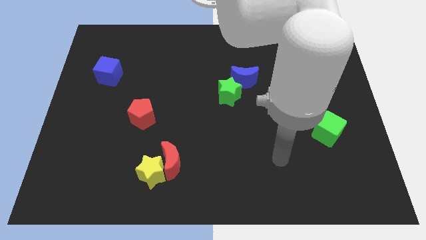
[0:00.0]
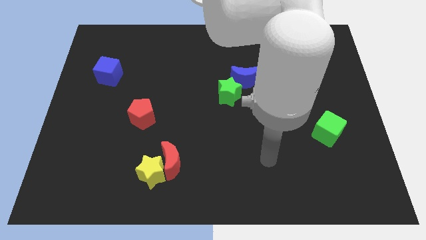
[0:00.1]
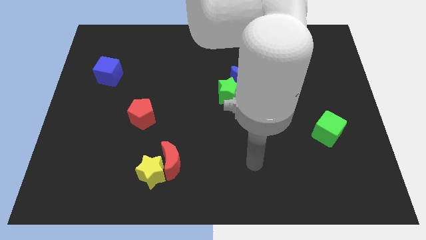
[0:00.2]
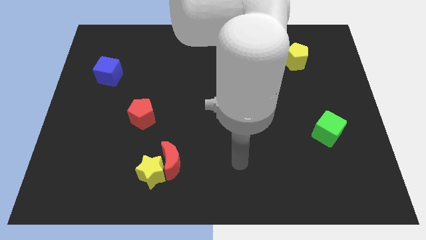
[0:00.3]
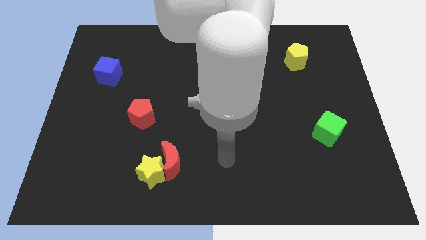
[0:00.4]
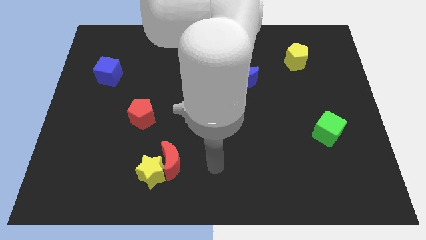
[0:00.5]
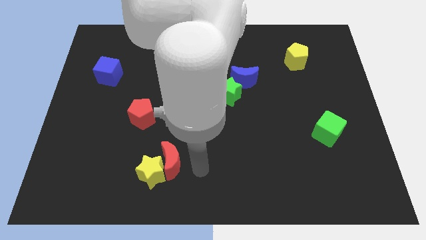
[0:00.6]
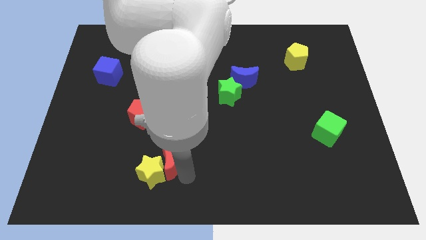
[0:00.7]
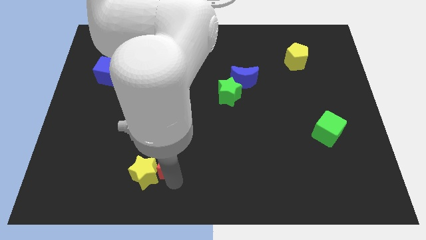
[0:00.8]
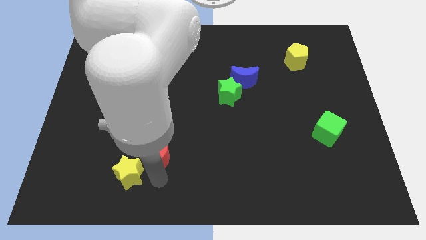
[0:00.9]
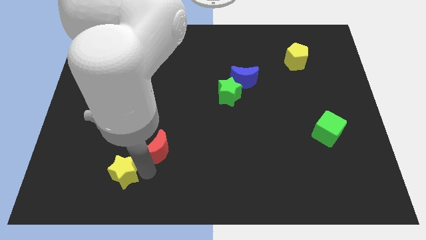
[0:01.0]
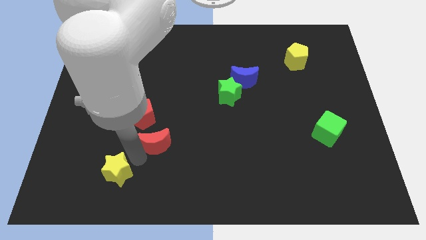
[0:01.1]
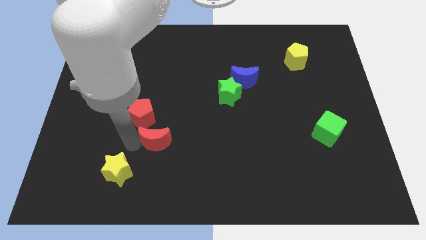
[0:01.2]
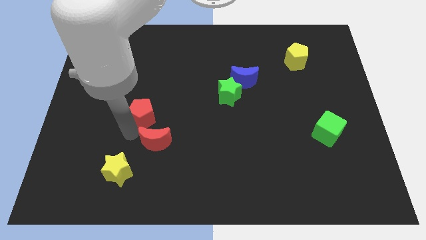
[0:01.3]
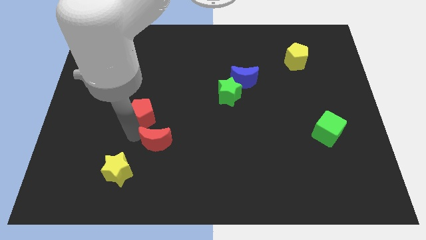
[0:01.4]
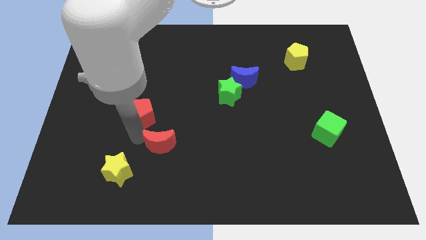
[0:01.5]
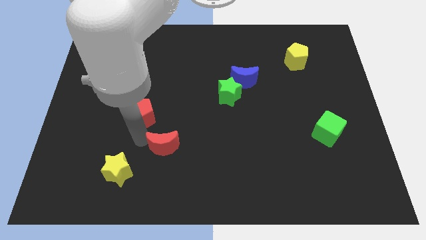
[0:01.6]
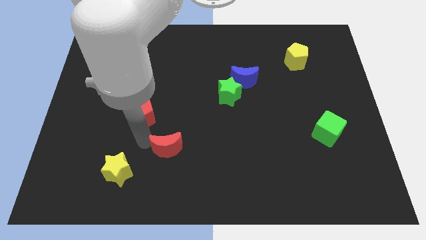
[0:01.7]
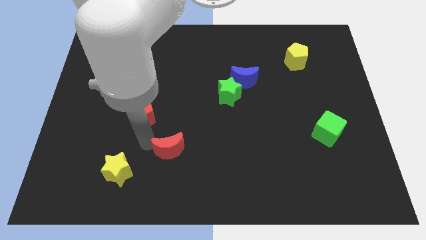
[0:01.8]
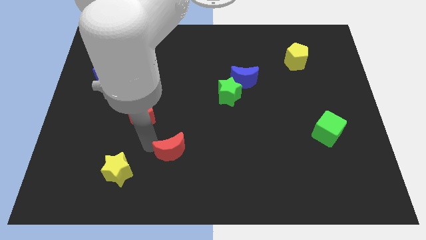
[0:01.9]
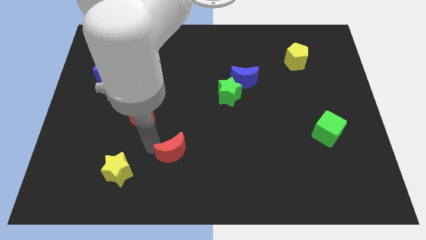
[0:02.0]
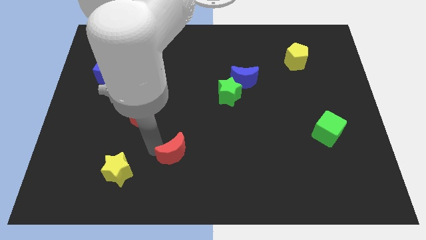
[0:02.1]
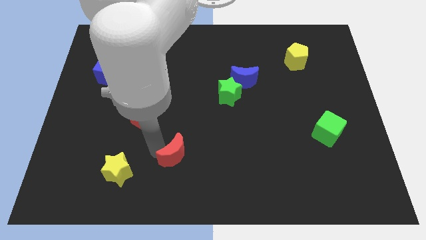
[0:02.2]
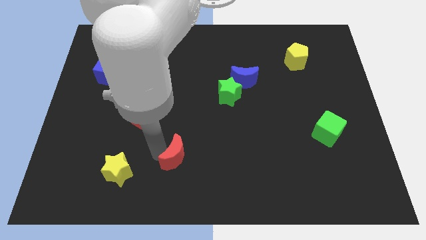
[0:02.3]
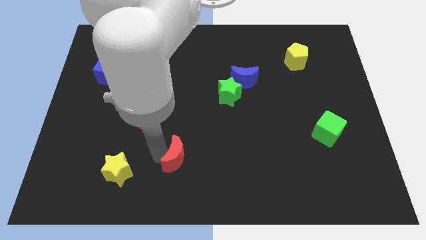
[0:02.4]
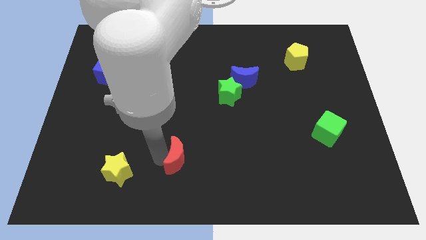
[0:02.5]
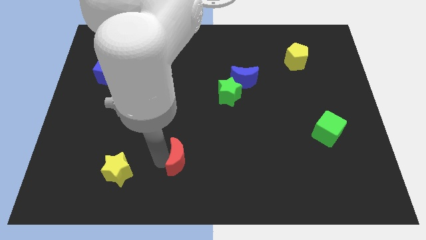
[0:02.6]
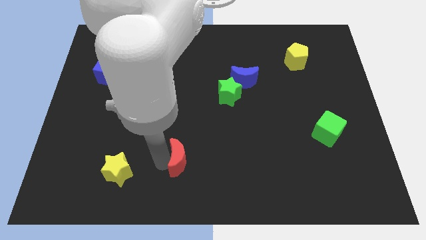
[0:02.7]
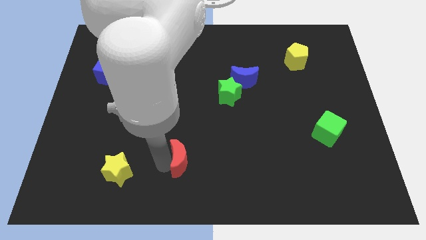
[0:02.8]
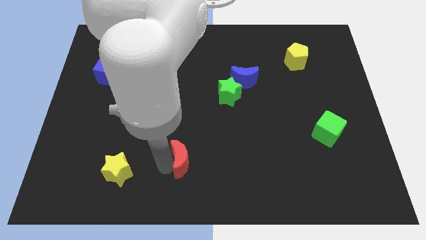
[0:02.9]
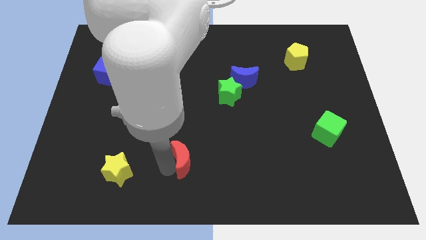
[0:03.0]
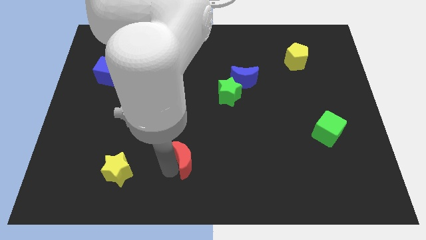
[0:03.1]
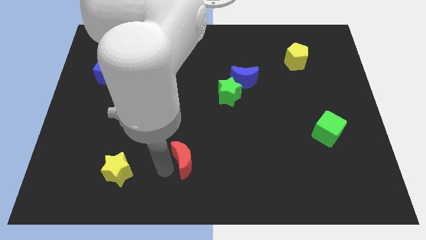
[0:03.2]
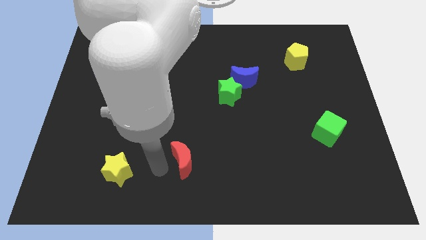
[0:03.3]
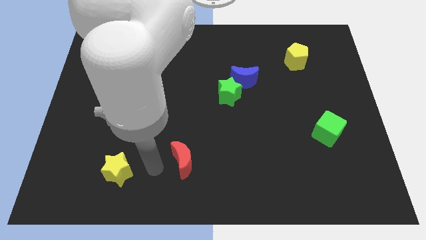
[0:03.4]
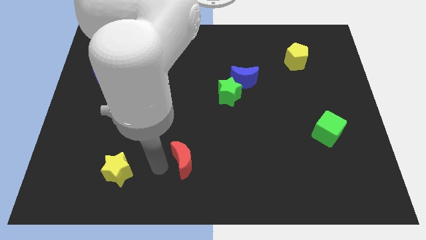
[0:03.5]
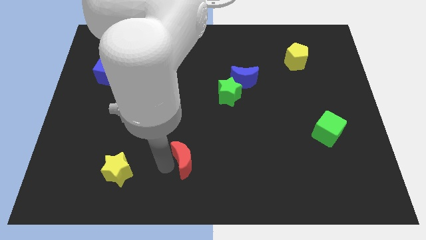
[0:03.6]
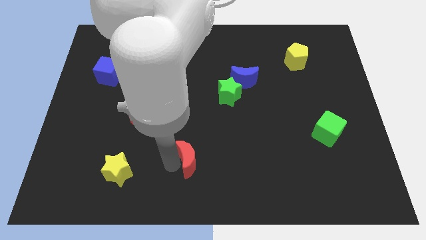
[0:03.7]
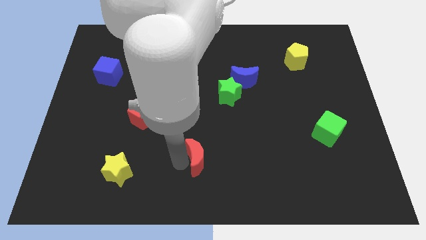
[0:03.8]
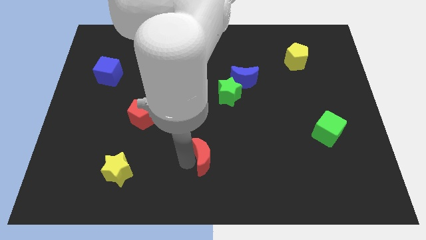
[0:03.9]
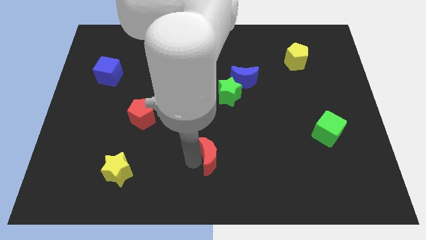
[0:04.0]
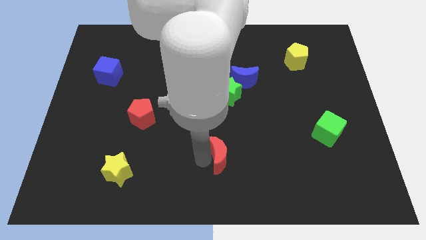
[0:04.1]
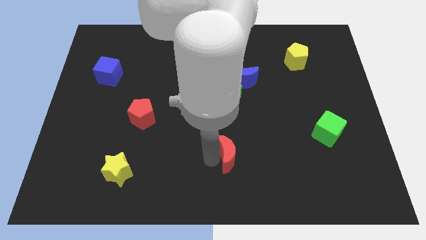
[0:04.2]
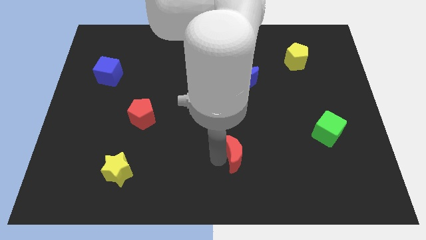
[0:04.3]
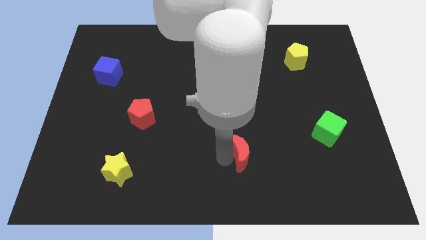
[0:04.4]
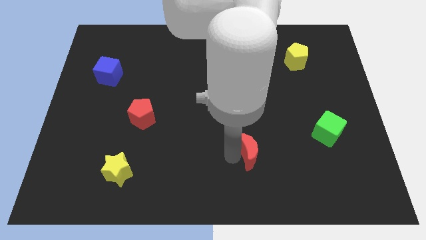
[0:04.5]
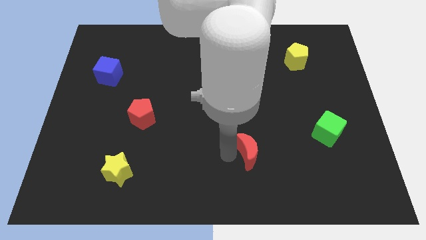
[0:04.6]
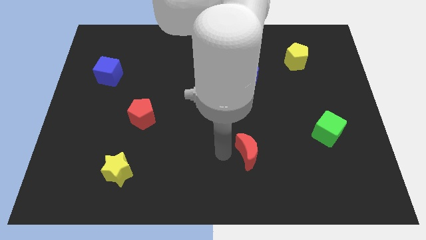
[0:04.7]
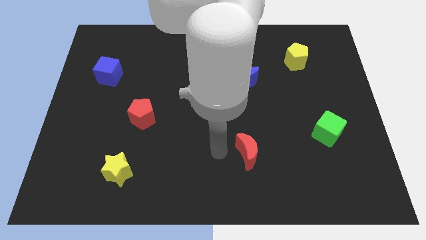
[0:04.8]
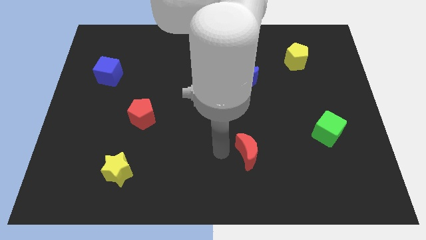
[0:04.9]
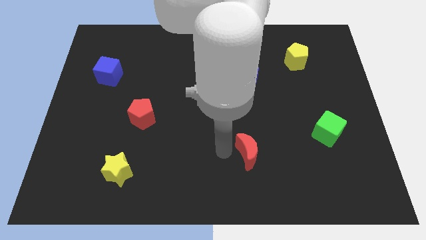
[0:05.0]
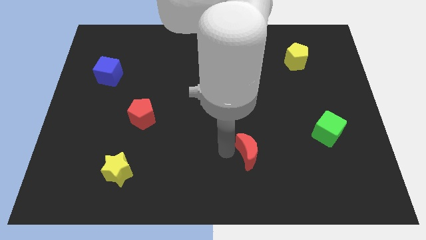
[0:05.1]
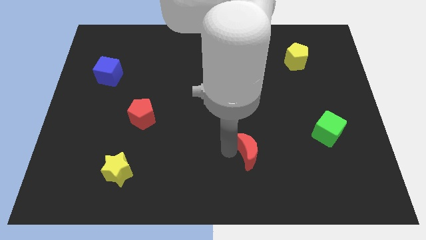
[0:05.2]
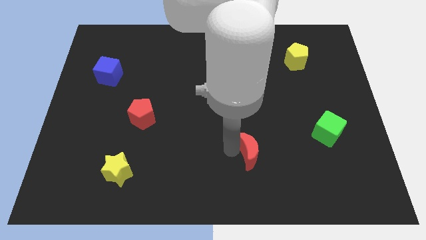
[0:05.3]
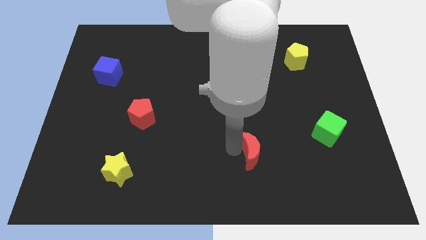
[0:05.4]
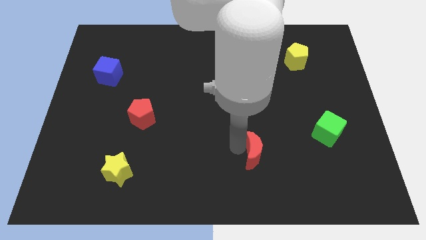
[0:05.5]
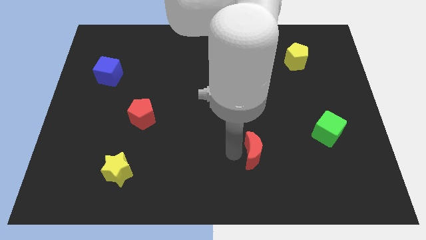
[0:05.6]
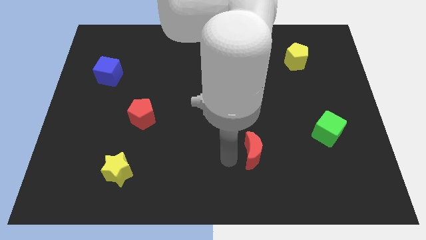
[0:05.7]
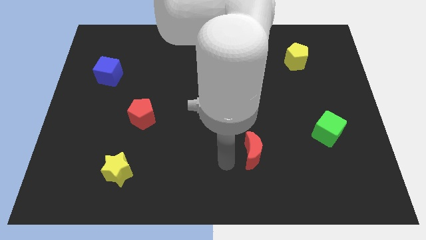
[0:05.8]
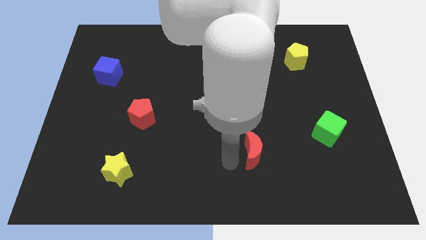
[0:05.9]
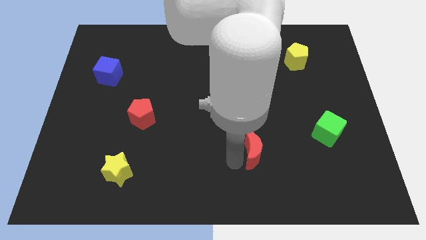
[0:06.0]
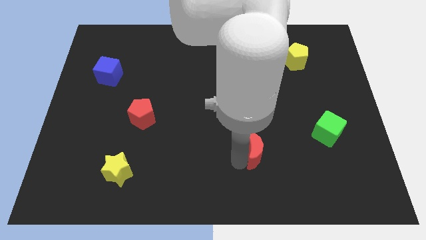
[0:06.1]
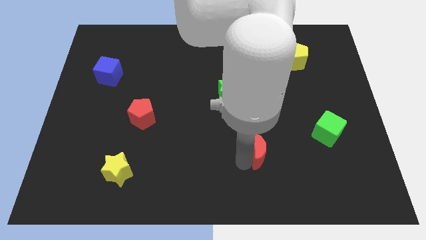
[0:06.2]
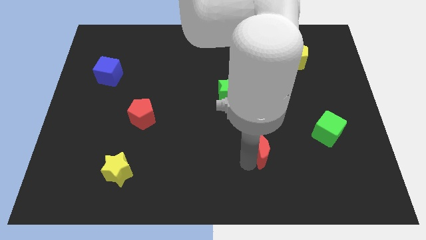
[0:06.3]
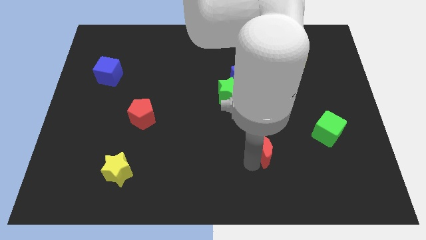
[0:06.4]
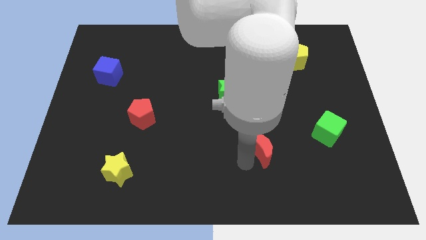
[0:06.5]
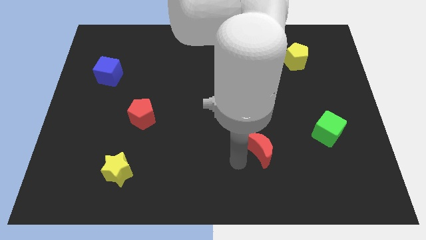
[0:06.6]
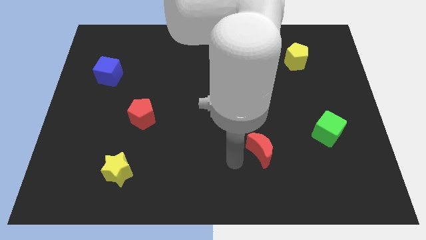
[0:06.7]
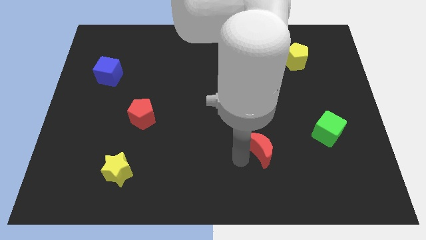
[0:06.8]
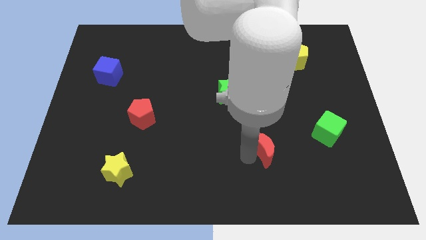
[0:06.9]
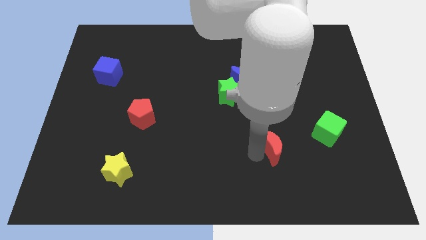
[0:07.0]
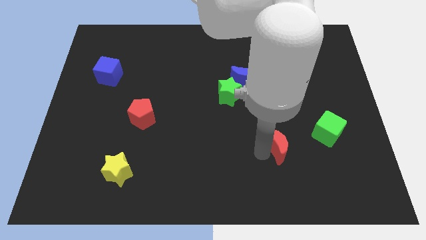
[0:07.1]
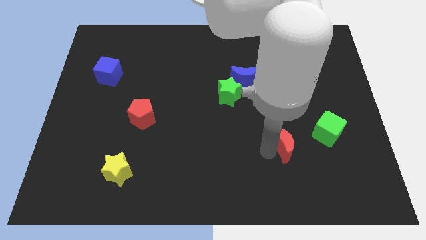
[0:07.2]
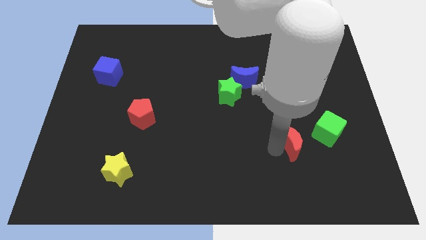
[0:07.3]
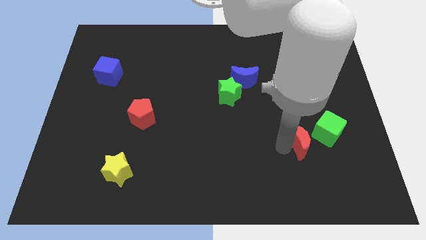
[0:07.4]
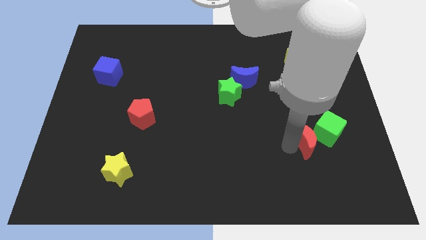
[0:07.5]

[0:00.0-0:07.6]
push the red moon close to the green cube

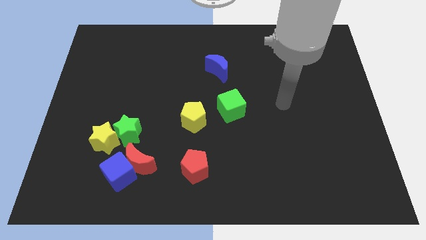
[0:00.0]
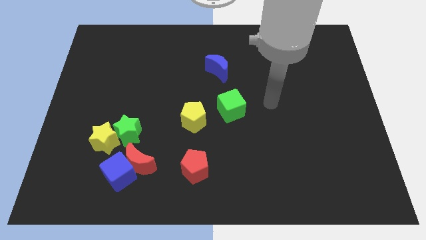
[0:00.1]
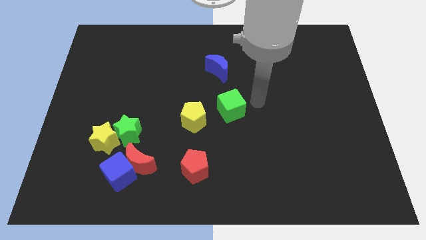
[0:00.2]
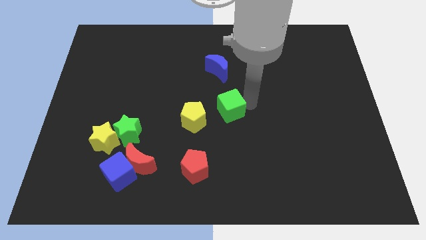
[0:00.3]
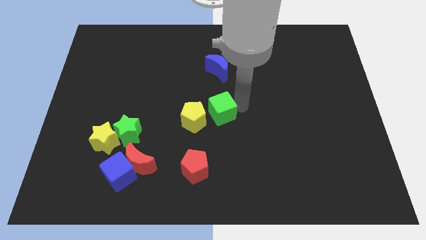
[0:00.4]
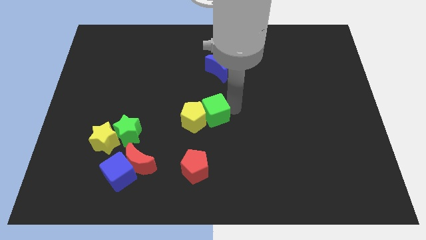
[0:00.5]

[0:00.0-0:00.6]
move the green cube next to the yellow pentagon
